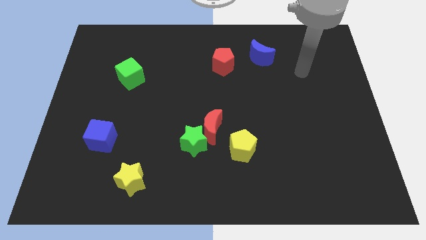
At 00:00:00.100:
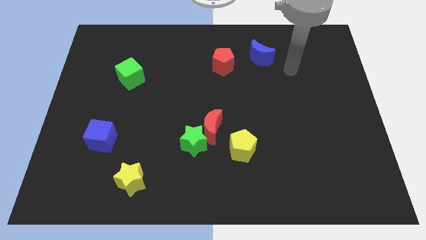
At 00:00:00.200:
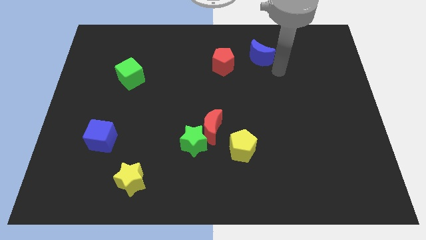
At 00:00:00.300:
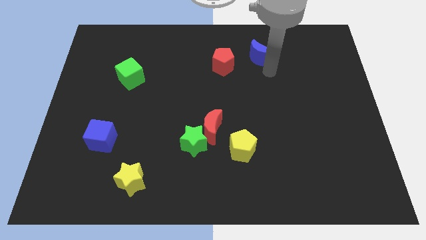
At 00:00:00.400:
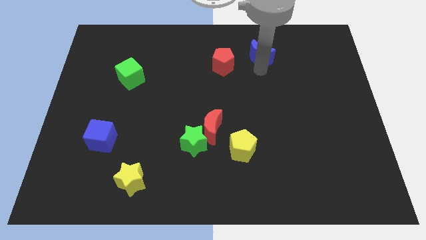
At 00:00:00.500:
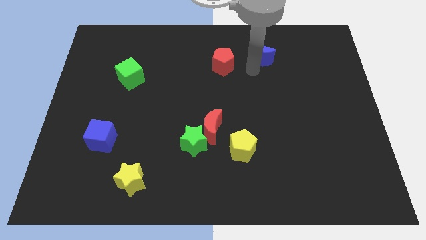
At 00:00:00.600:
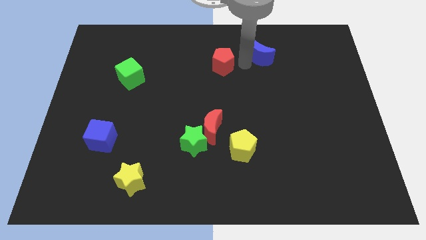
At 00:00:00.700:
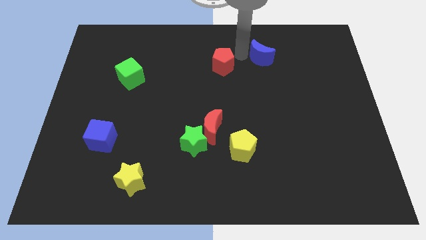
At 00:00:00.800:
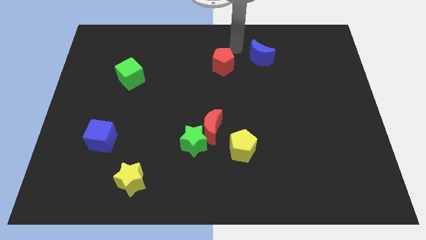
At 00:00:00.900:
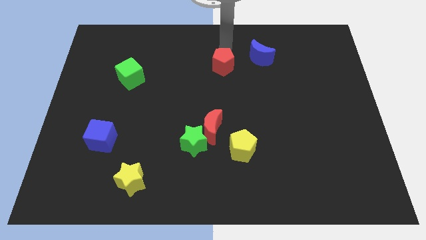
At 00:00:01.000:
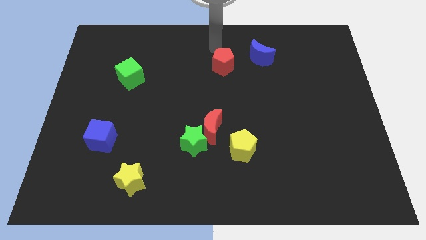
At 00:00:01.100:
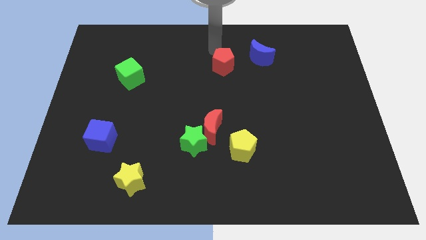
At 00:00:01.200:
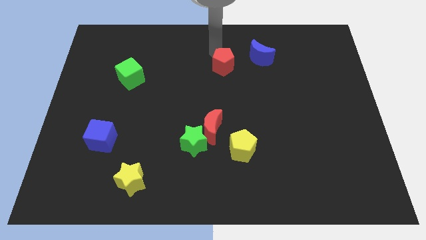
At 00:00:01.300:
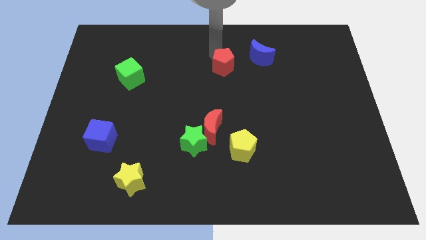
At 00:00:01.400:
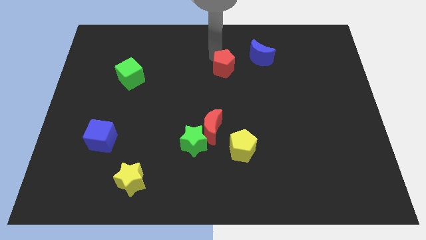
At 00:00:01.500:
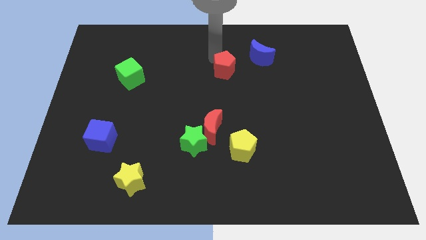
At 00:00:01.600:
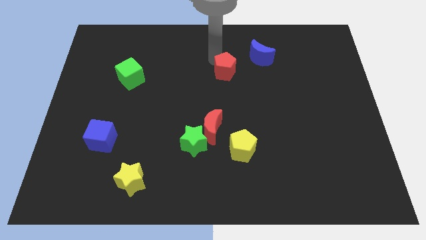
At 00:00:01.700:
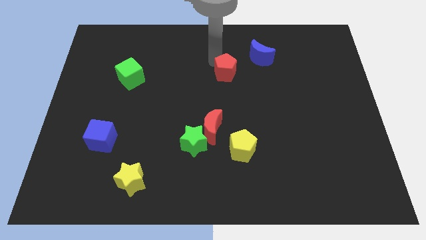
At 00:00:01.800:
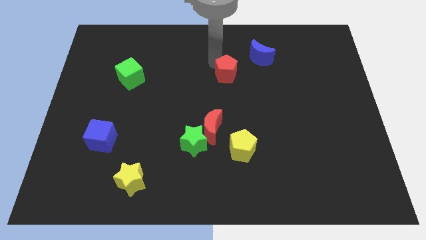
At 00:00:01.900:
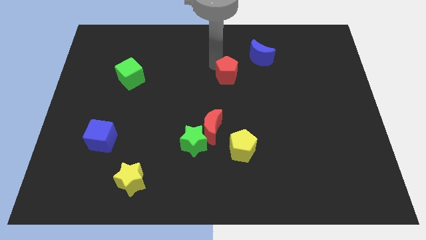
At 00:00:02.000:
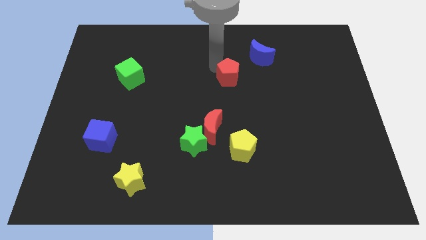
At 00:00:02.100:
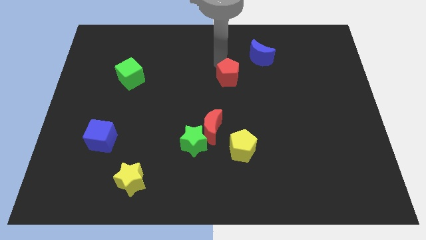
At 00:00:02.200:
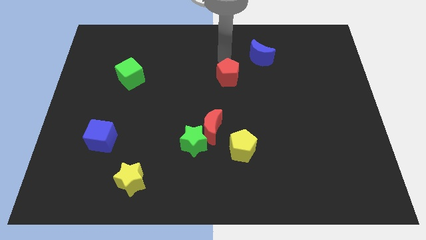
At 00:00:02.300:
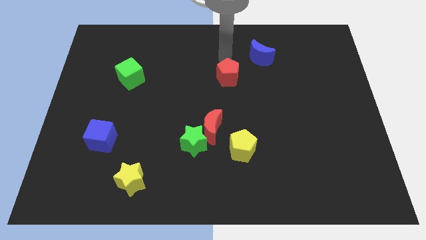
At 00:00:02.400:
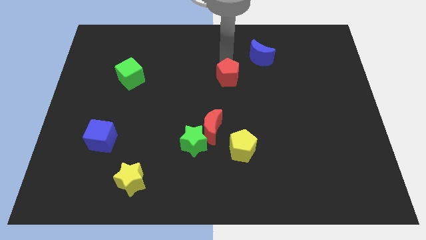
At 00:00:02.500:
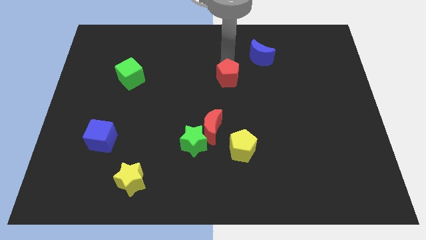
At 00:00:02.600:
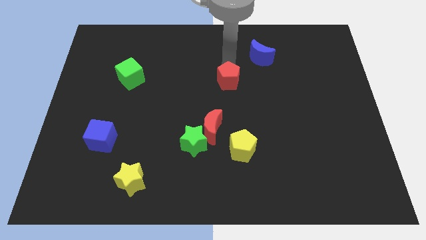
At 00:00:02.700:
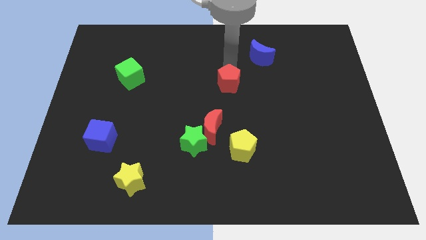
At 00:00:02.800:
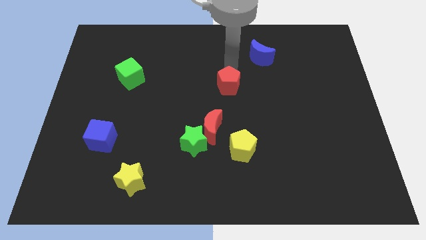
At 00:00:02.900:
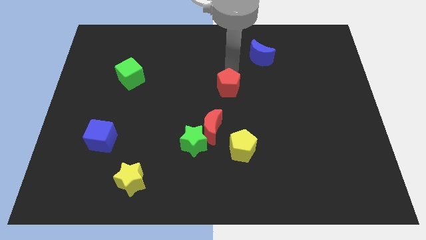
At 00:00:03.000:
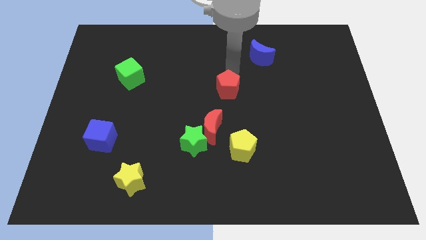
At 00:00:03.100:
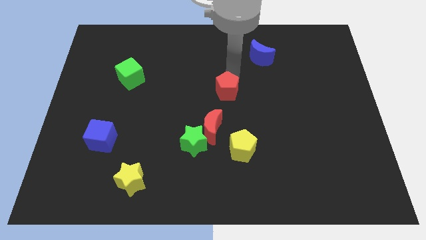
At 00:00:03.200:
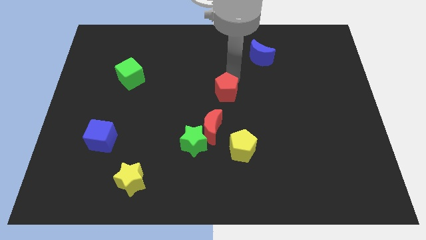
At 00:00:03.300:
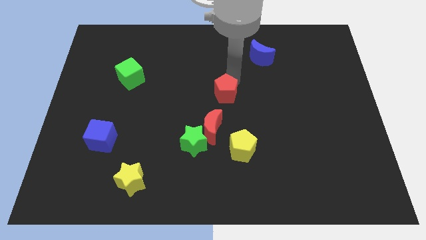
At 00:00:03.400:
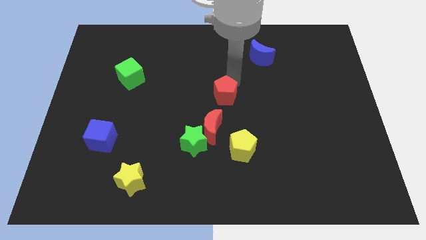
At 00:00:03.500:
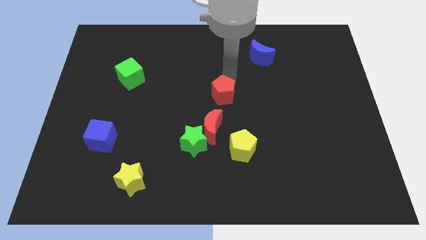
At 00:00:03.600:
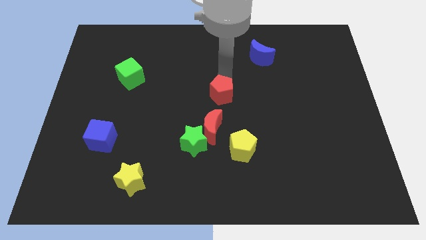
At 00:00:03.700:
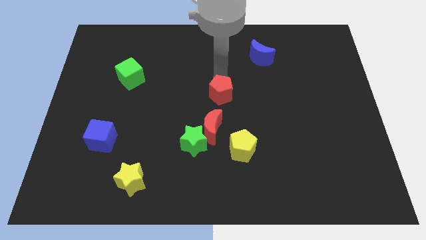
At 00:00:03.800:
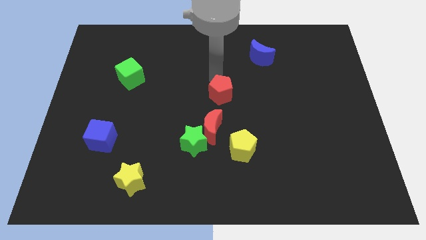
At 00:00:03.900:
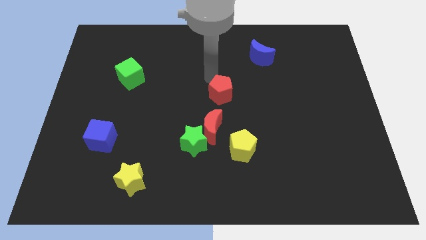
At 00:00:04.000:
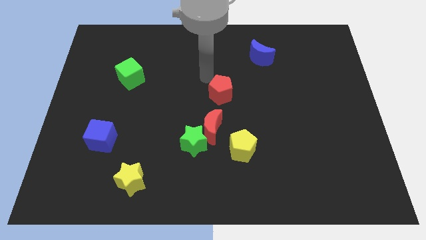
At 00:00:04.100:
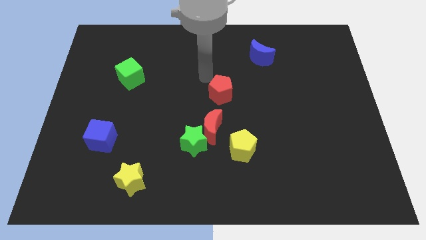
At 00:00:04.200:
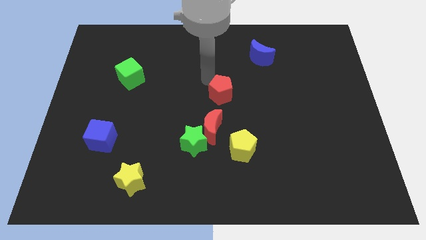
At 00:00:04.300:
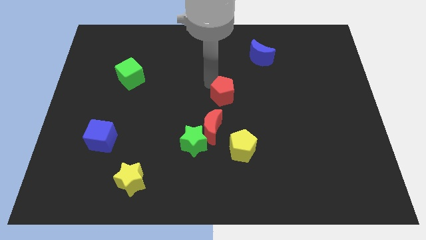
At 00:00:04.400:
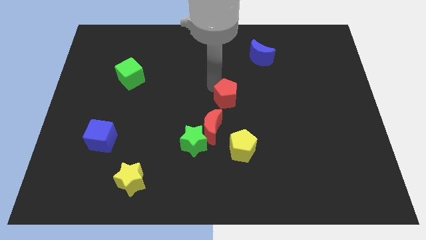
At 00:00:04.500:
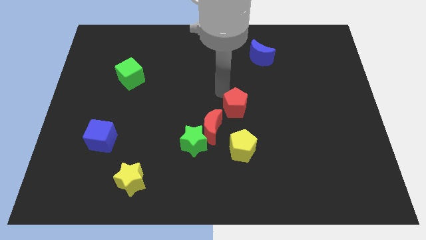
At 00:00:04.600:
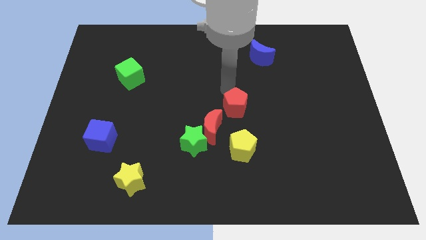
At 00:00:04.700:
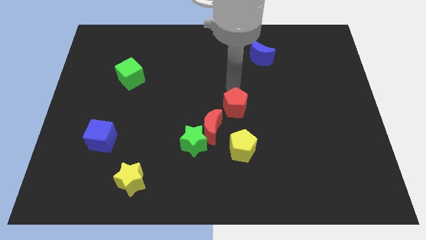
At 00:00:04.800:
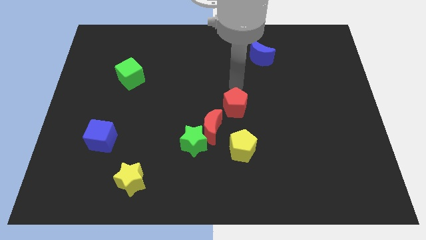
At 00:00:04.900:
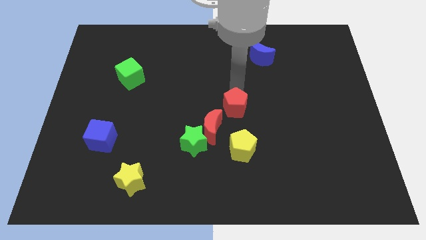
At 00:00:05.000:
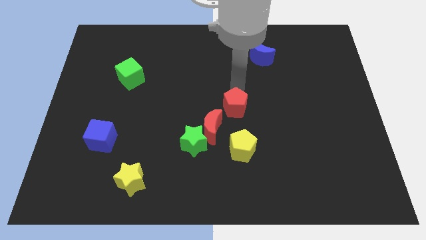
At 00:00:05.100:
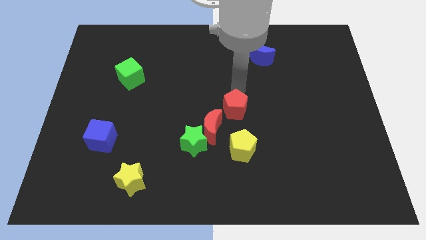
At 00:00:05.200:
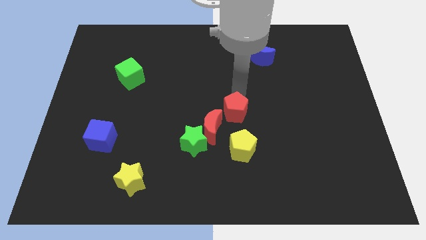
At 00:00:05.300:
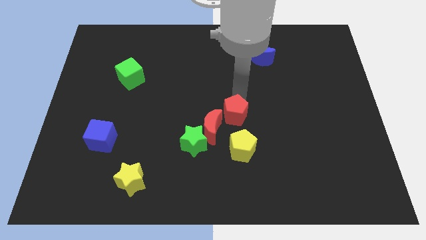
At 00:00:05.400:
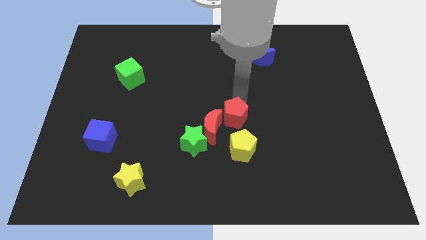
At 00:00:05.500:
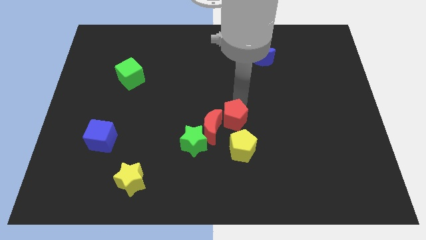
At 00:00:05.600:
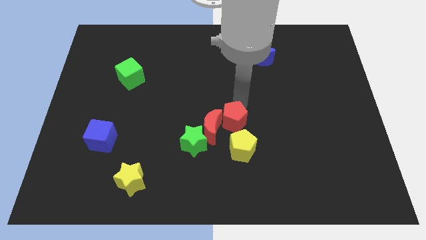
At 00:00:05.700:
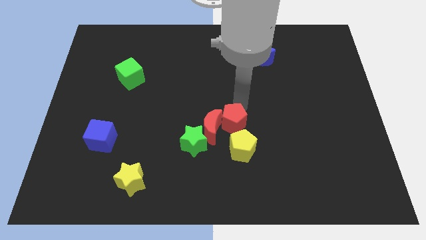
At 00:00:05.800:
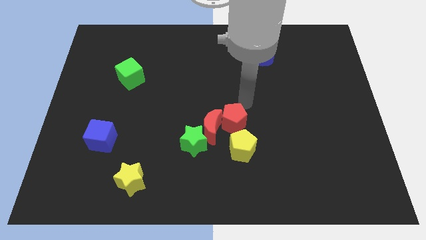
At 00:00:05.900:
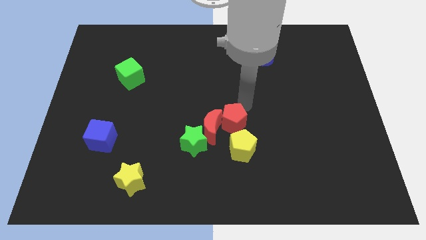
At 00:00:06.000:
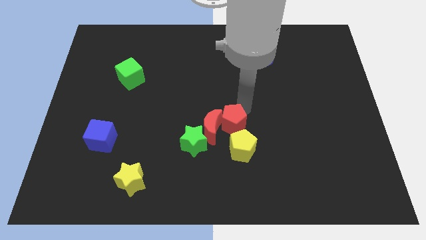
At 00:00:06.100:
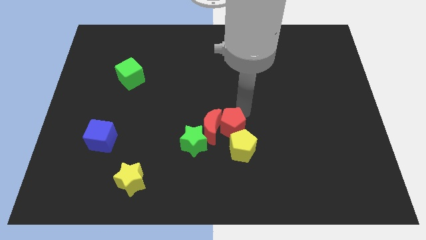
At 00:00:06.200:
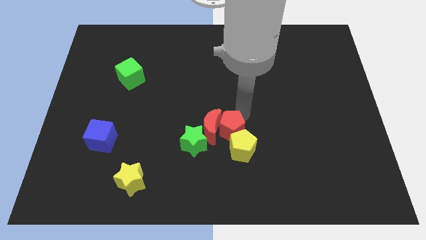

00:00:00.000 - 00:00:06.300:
slide the red pentagon downwards

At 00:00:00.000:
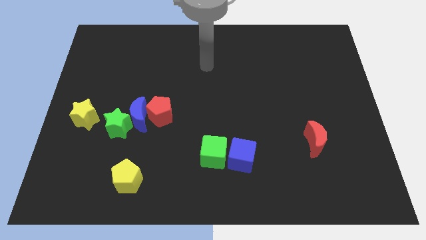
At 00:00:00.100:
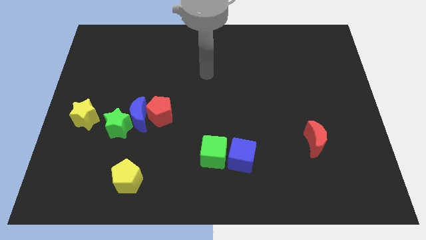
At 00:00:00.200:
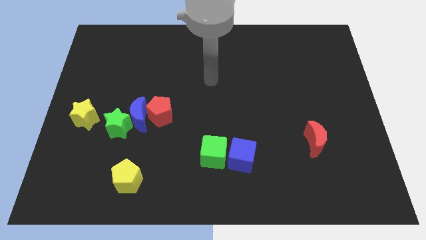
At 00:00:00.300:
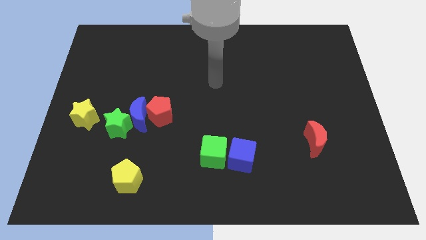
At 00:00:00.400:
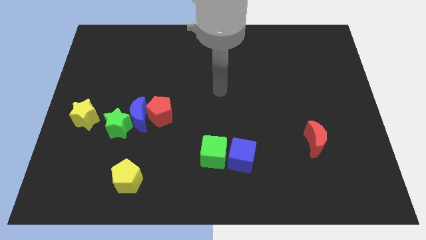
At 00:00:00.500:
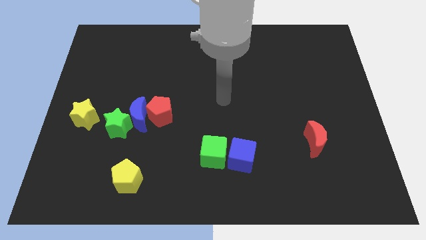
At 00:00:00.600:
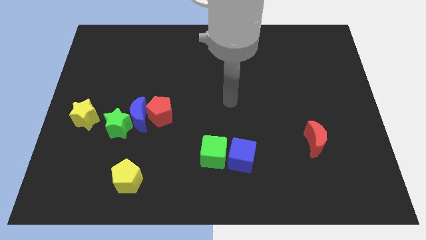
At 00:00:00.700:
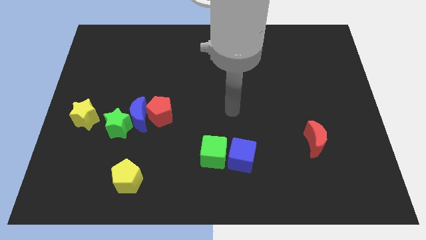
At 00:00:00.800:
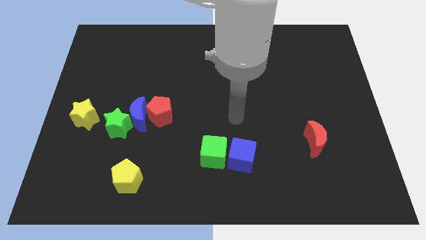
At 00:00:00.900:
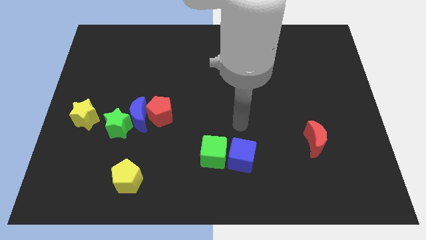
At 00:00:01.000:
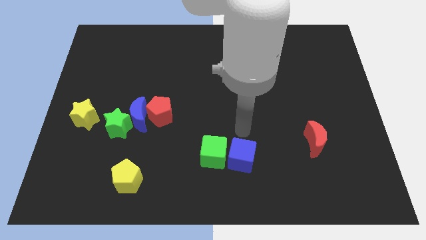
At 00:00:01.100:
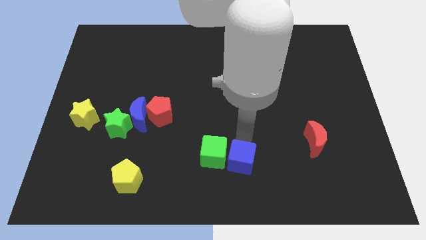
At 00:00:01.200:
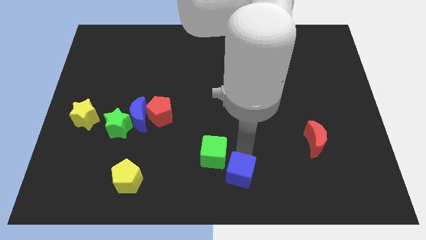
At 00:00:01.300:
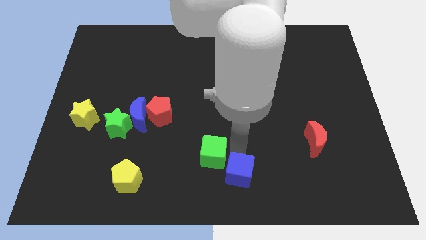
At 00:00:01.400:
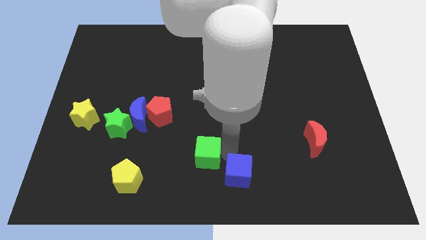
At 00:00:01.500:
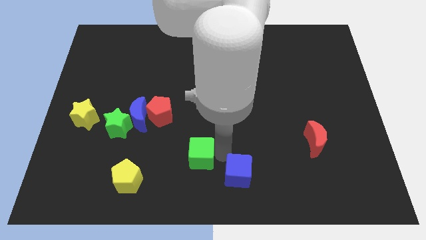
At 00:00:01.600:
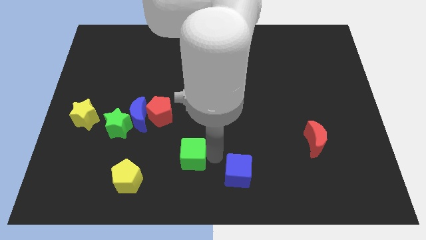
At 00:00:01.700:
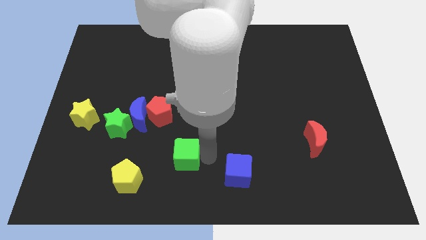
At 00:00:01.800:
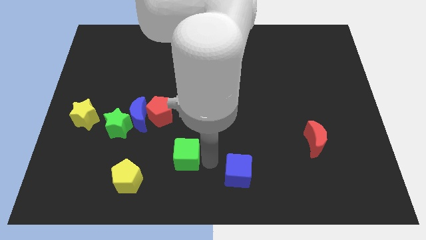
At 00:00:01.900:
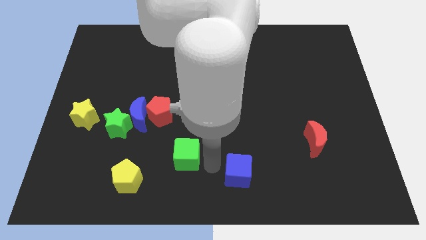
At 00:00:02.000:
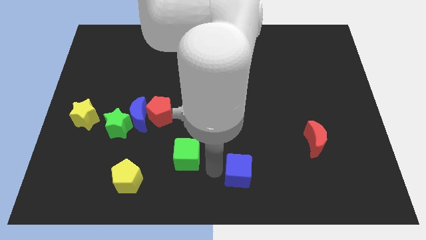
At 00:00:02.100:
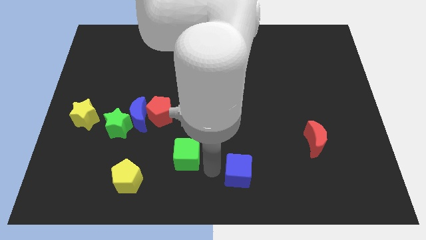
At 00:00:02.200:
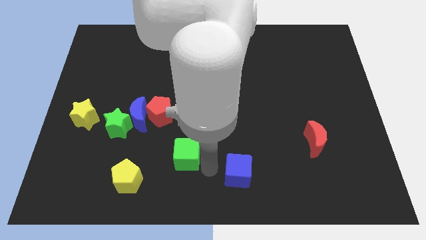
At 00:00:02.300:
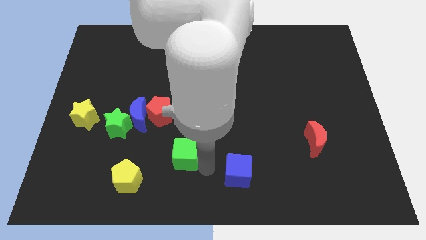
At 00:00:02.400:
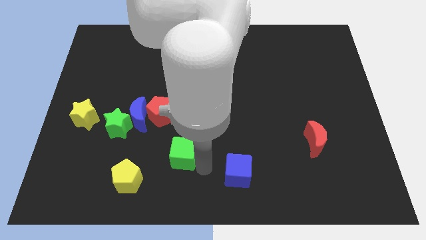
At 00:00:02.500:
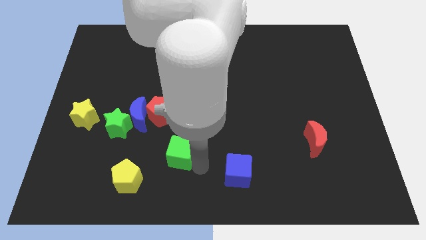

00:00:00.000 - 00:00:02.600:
push the green cube to the left a bit
